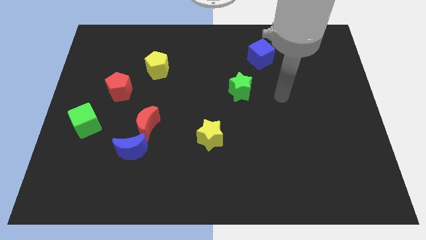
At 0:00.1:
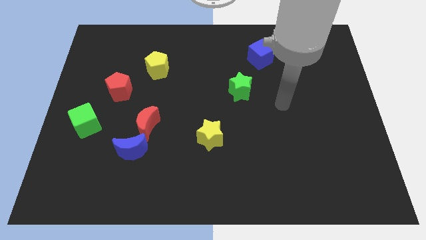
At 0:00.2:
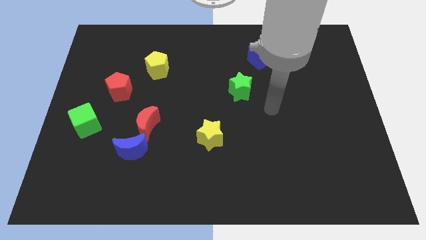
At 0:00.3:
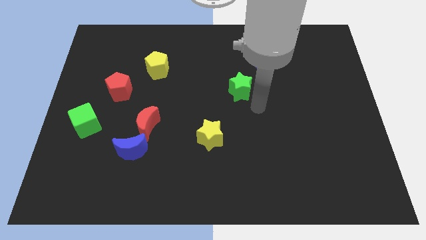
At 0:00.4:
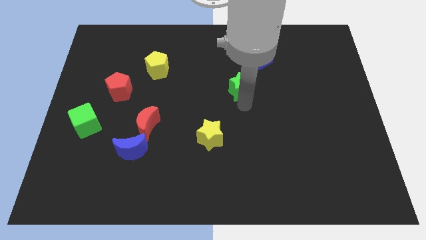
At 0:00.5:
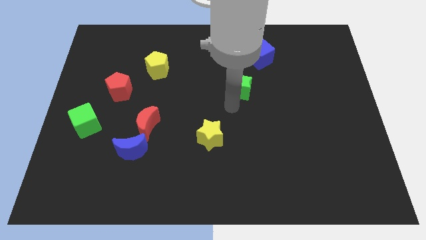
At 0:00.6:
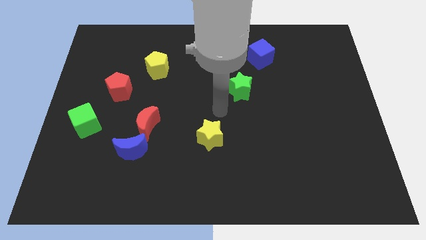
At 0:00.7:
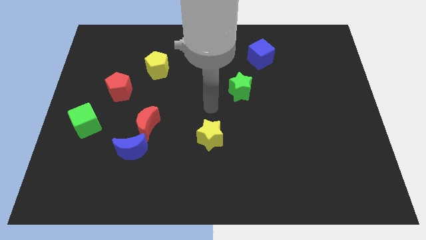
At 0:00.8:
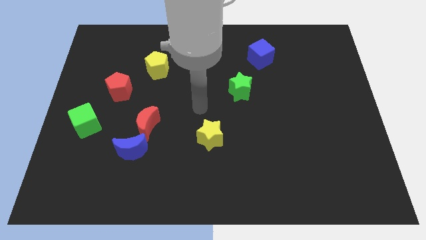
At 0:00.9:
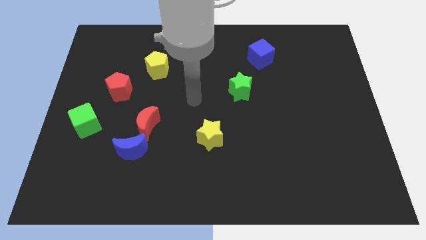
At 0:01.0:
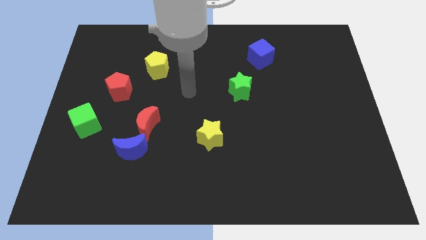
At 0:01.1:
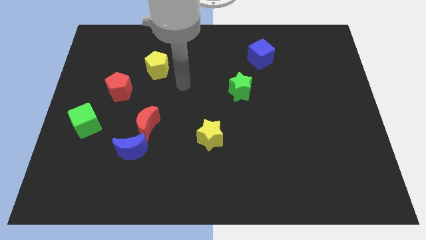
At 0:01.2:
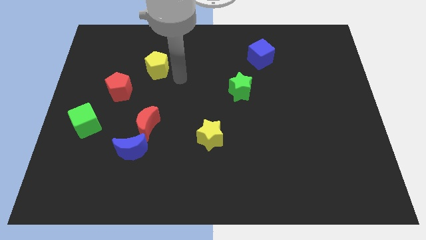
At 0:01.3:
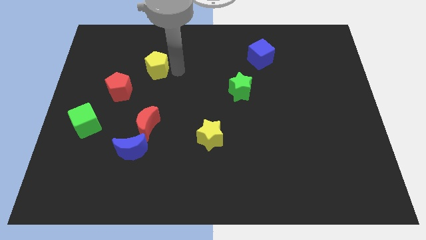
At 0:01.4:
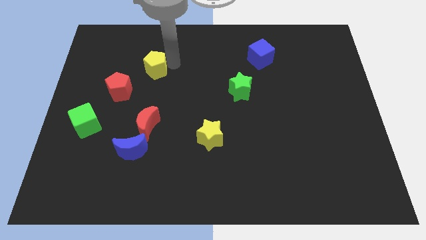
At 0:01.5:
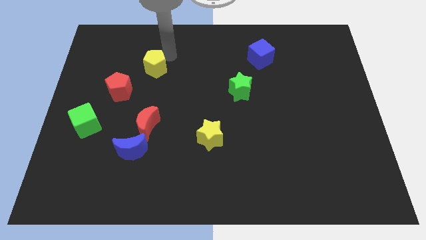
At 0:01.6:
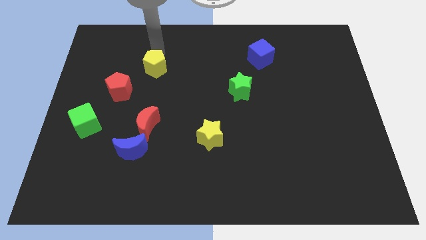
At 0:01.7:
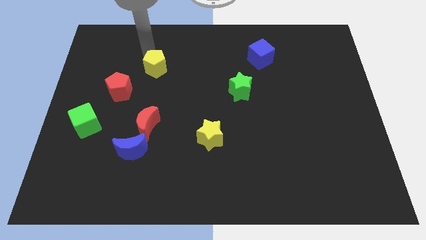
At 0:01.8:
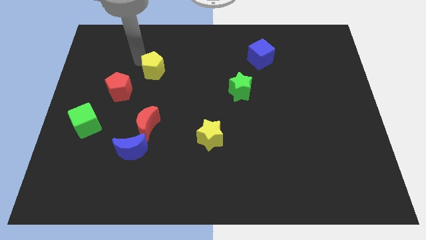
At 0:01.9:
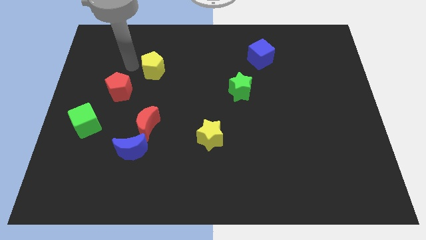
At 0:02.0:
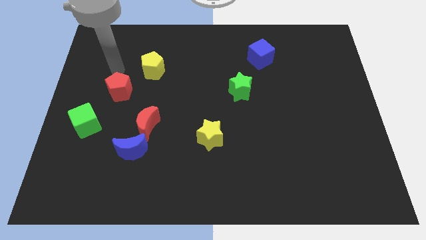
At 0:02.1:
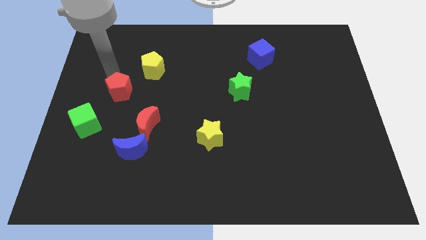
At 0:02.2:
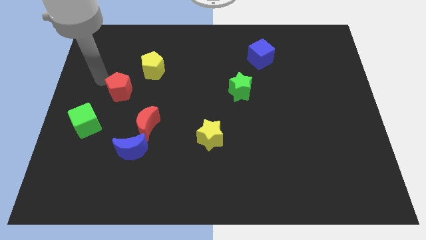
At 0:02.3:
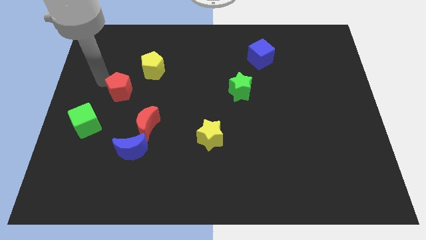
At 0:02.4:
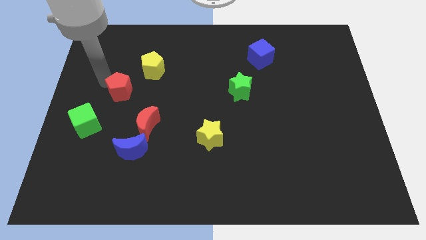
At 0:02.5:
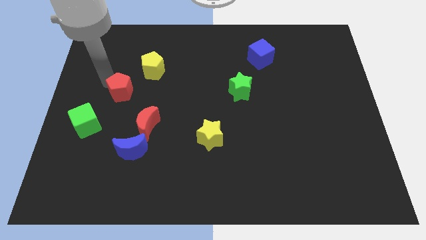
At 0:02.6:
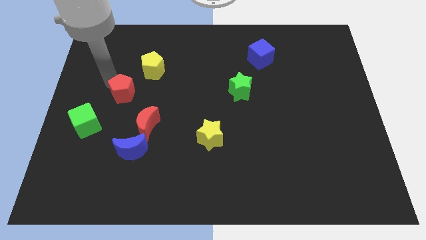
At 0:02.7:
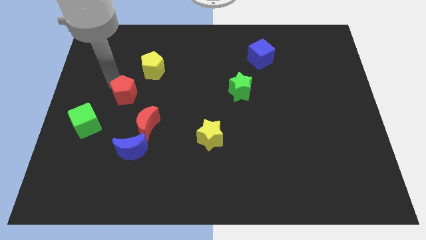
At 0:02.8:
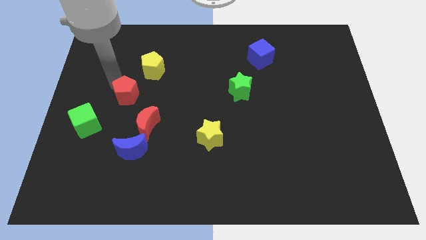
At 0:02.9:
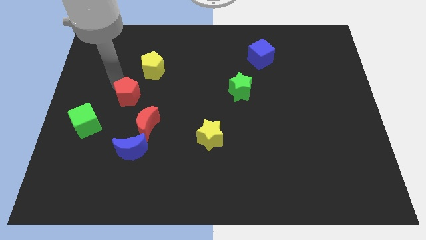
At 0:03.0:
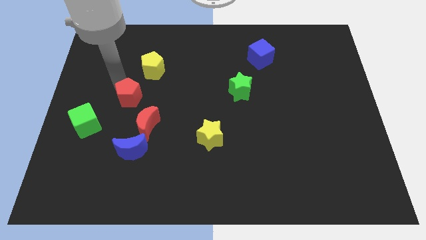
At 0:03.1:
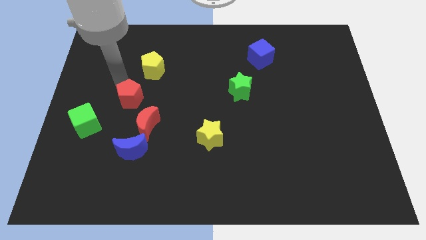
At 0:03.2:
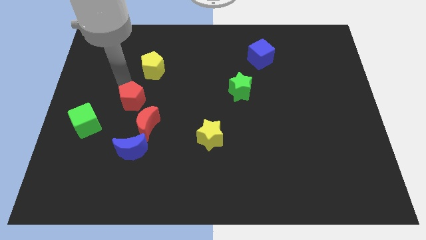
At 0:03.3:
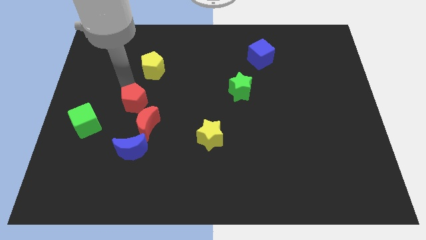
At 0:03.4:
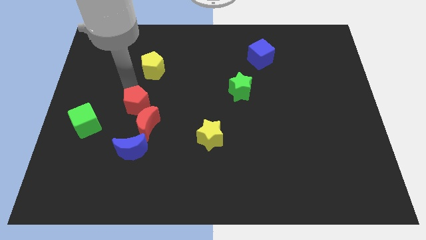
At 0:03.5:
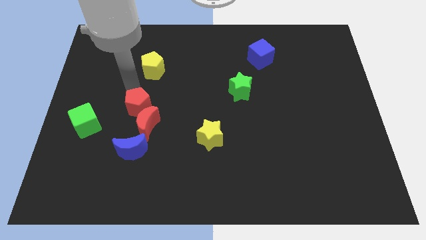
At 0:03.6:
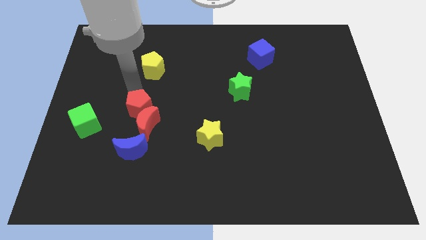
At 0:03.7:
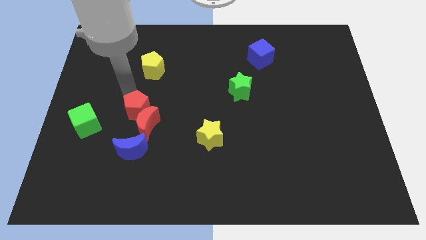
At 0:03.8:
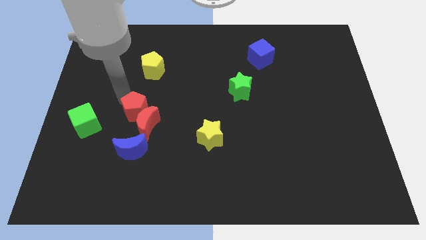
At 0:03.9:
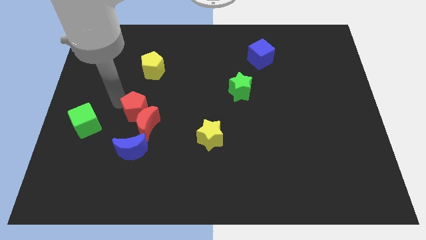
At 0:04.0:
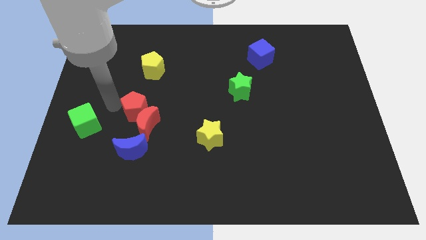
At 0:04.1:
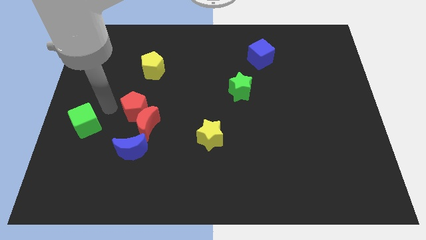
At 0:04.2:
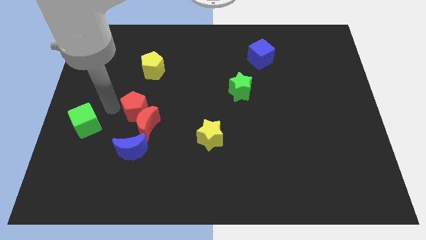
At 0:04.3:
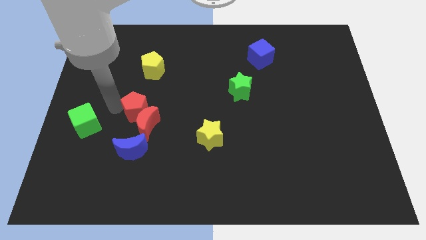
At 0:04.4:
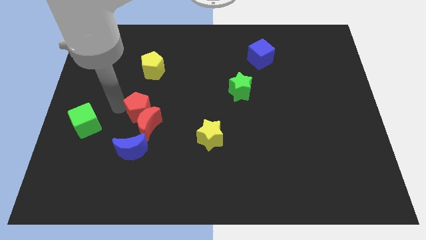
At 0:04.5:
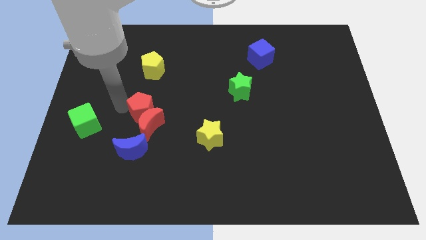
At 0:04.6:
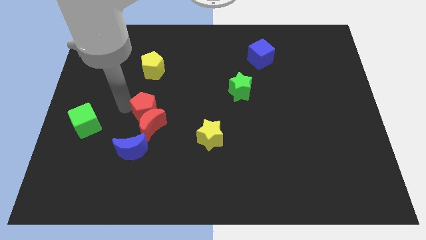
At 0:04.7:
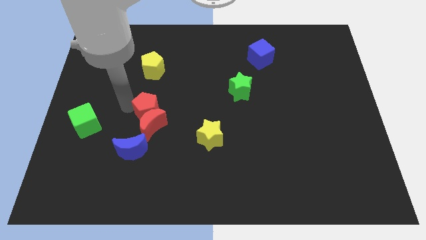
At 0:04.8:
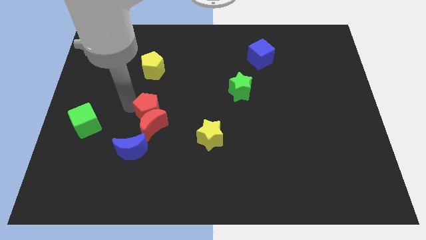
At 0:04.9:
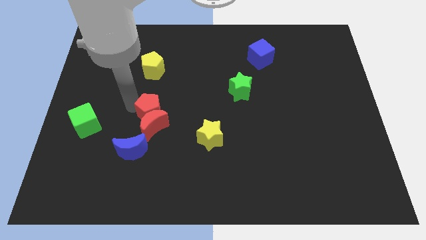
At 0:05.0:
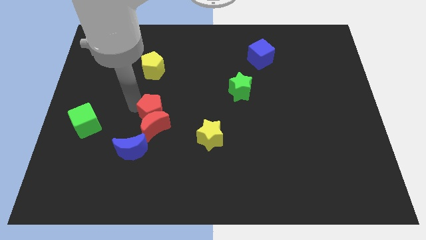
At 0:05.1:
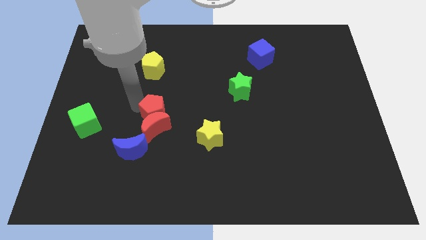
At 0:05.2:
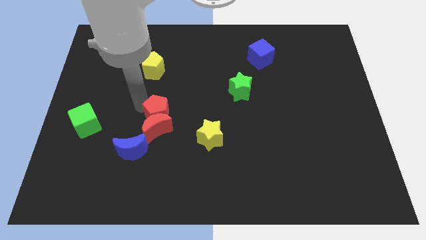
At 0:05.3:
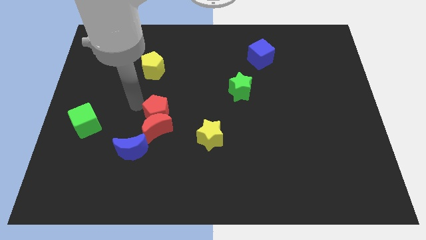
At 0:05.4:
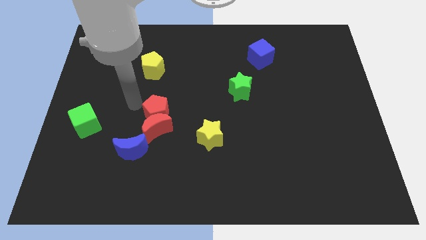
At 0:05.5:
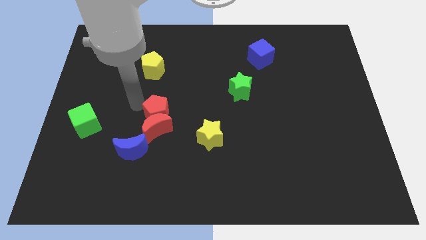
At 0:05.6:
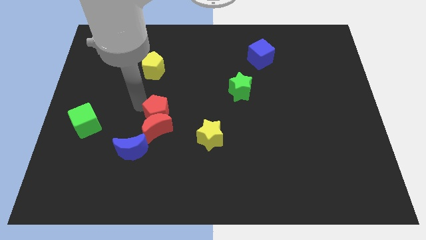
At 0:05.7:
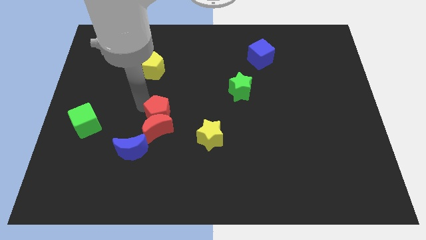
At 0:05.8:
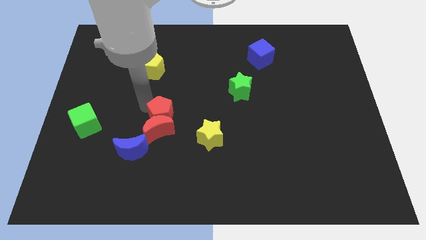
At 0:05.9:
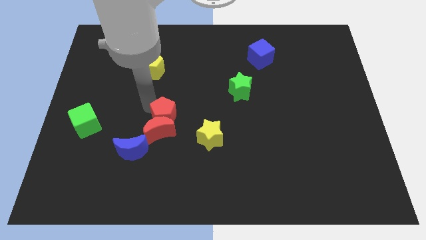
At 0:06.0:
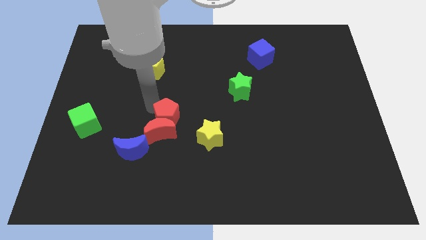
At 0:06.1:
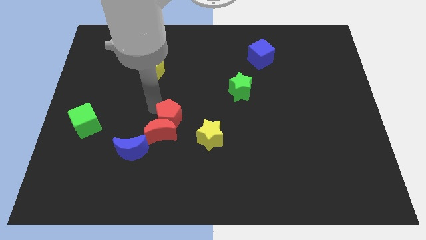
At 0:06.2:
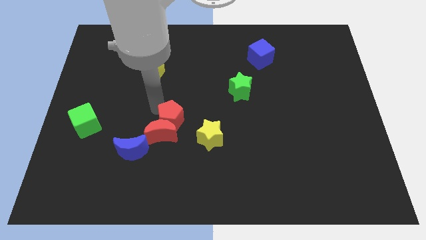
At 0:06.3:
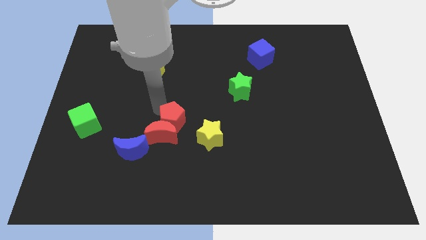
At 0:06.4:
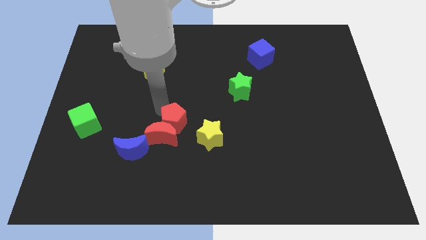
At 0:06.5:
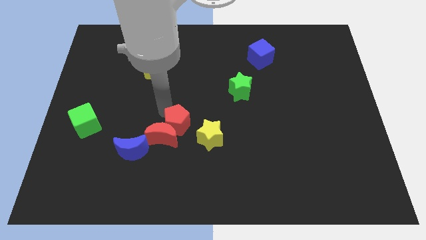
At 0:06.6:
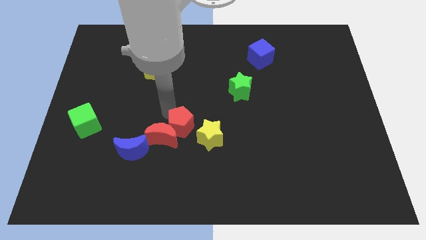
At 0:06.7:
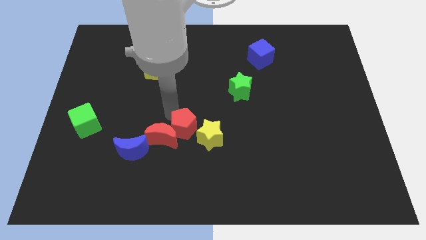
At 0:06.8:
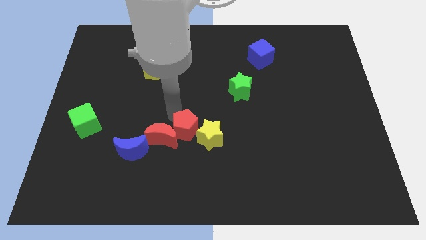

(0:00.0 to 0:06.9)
push the red pentagon to the yellow star
